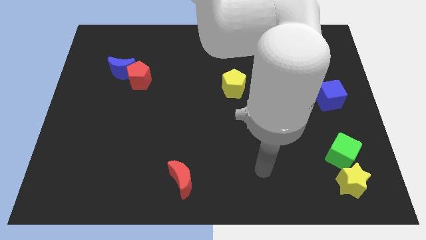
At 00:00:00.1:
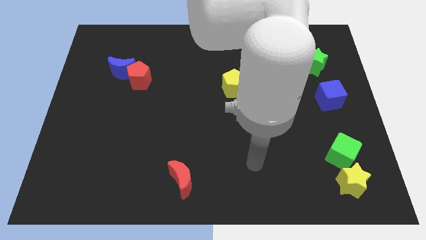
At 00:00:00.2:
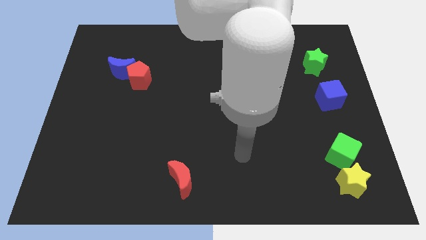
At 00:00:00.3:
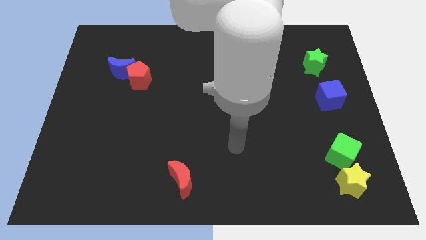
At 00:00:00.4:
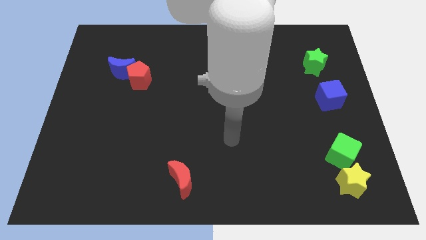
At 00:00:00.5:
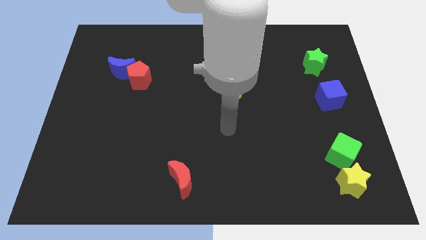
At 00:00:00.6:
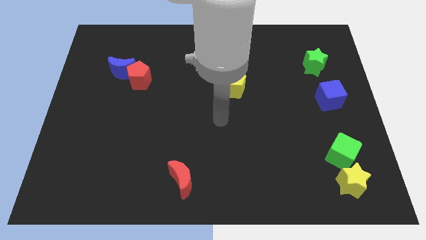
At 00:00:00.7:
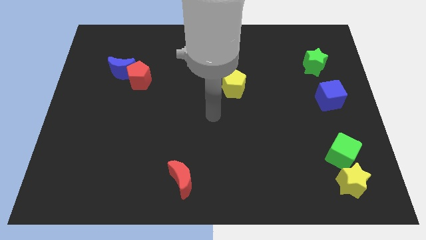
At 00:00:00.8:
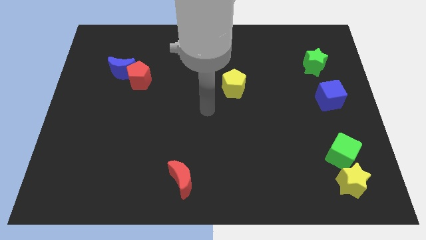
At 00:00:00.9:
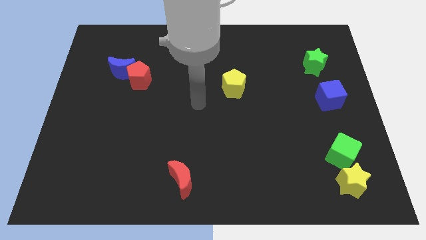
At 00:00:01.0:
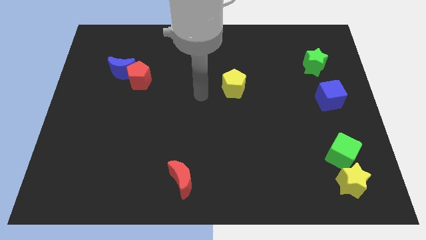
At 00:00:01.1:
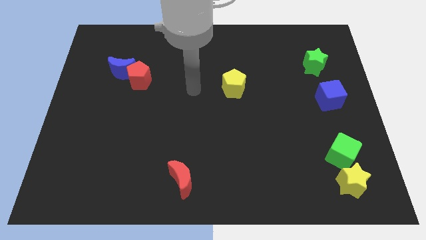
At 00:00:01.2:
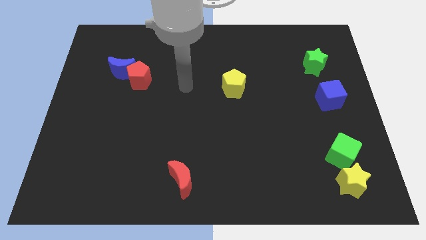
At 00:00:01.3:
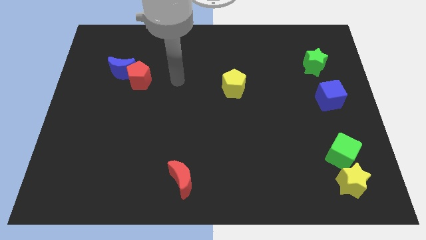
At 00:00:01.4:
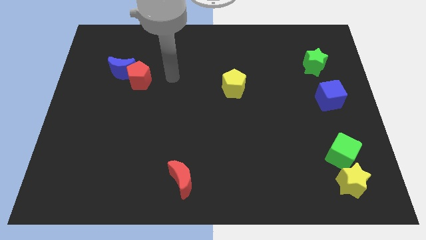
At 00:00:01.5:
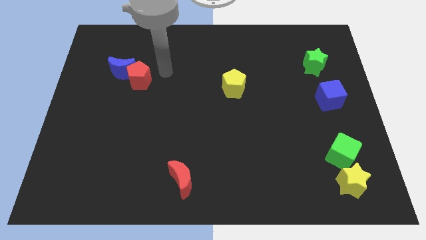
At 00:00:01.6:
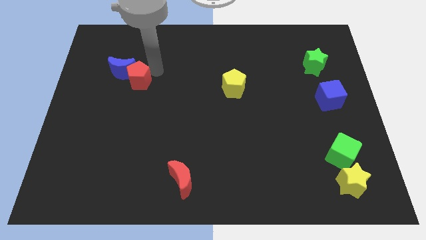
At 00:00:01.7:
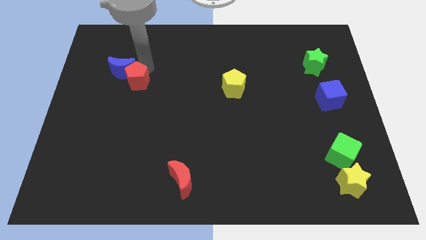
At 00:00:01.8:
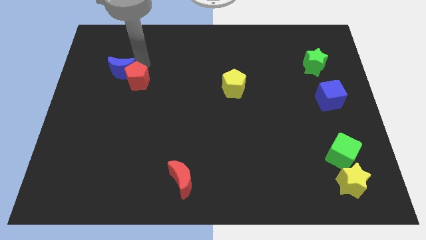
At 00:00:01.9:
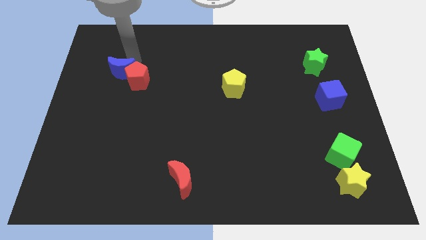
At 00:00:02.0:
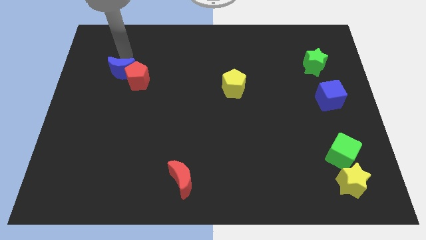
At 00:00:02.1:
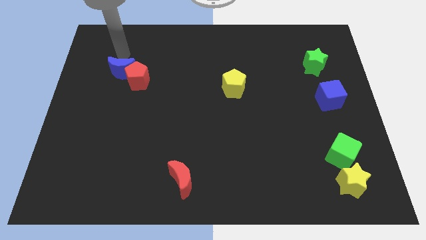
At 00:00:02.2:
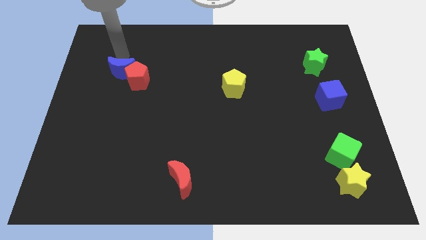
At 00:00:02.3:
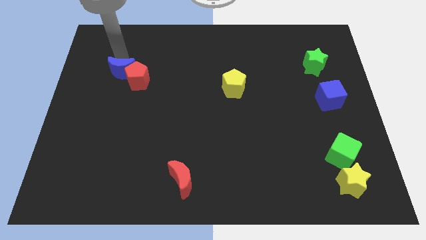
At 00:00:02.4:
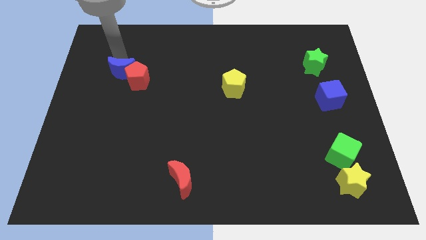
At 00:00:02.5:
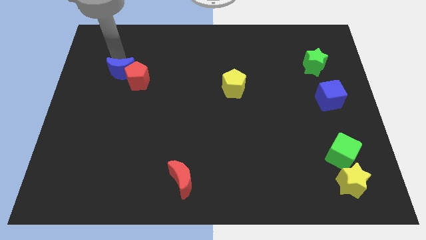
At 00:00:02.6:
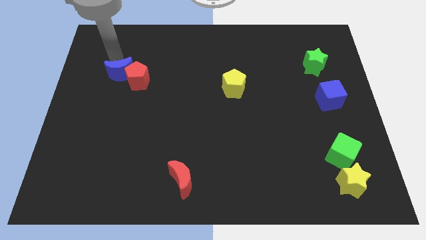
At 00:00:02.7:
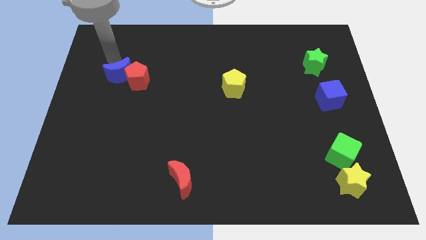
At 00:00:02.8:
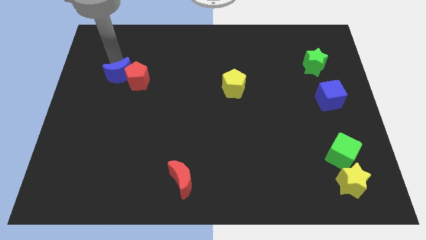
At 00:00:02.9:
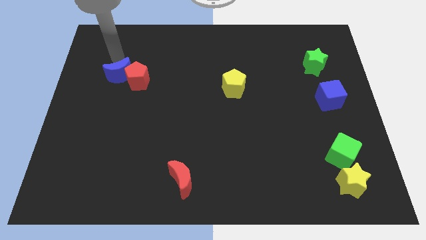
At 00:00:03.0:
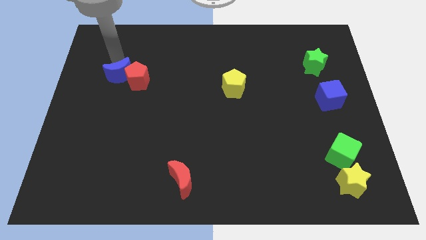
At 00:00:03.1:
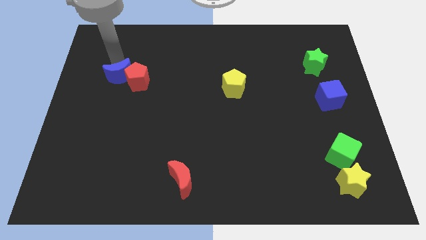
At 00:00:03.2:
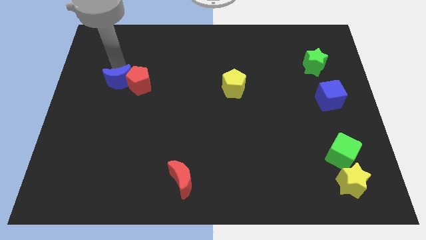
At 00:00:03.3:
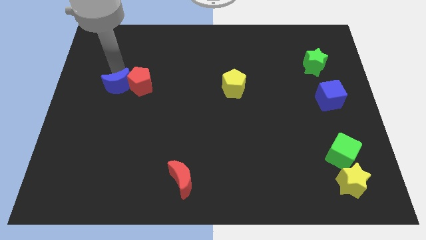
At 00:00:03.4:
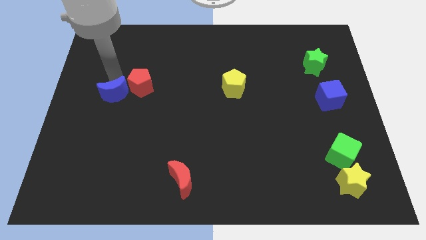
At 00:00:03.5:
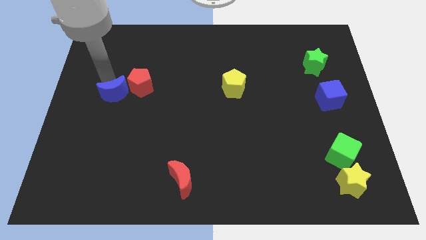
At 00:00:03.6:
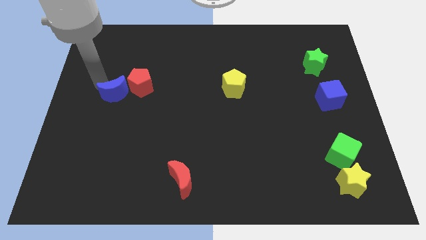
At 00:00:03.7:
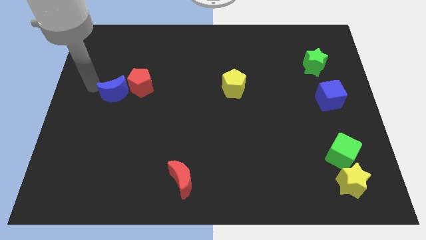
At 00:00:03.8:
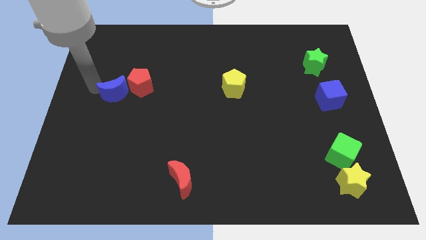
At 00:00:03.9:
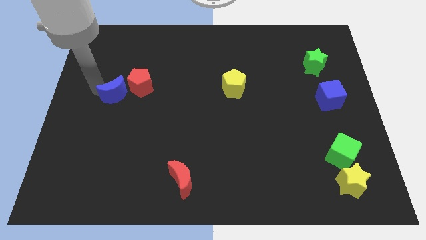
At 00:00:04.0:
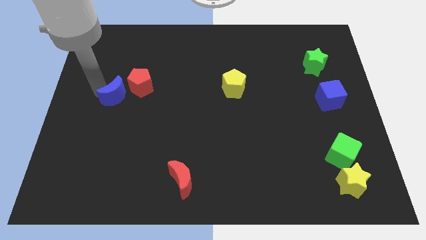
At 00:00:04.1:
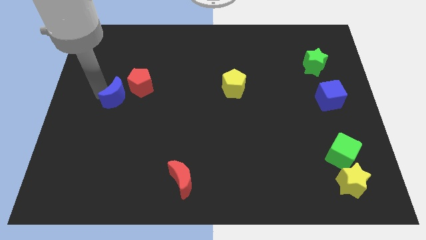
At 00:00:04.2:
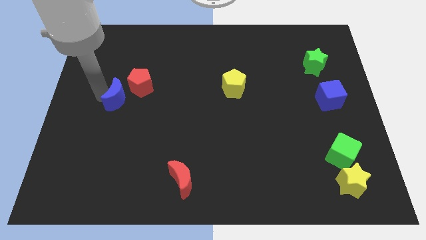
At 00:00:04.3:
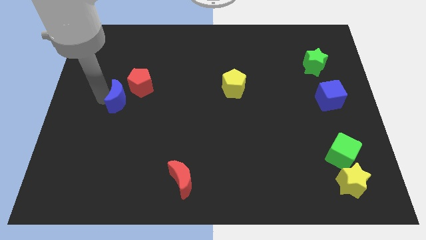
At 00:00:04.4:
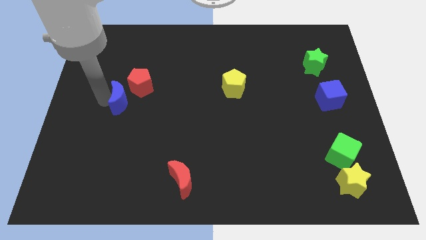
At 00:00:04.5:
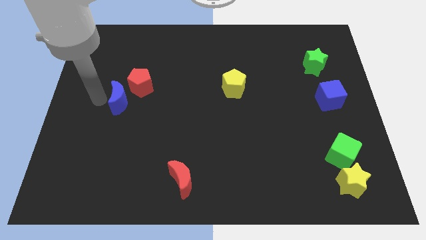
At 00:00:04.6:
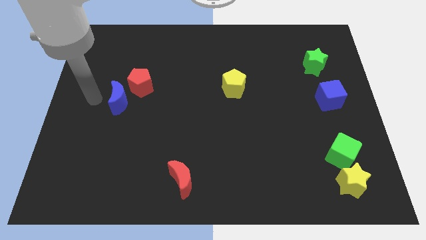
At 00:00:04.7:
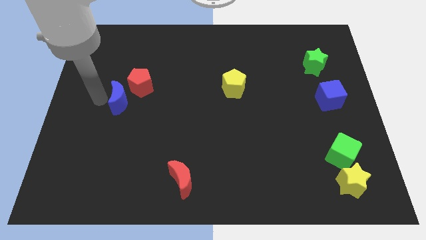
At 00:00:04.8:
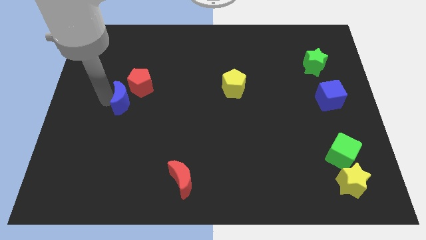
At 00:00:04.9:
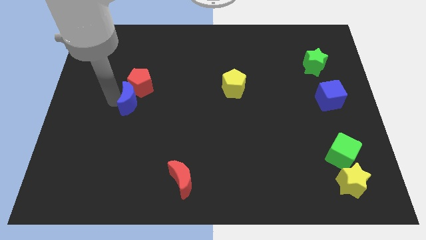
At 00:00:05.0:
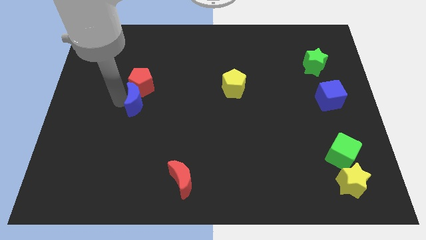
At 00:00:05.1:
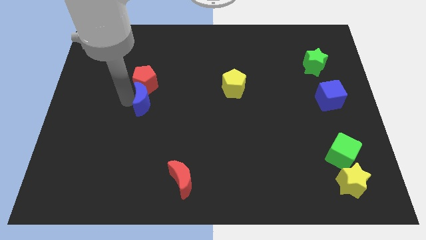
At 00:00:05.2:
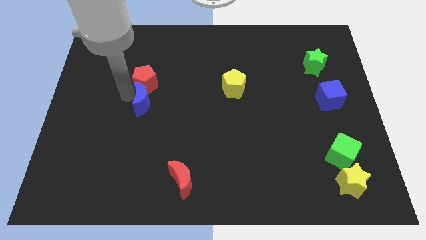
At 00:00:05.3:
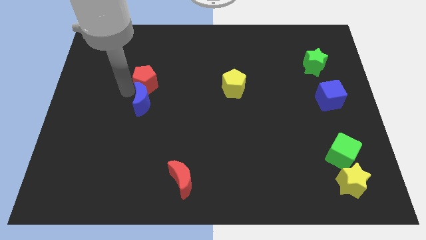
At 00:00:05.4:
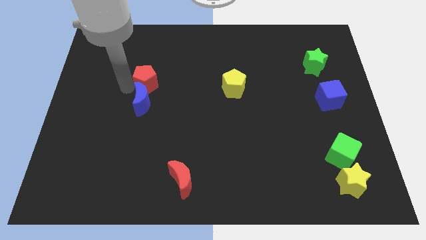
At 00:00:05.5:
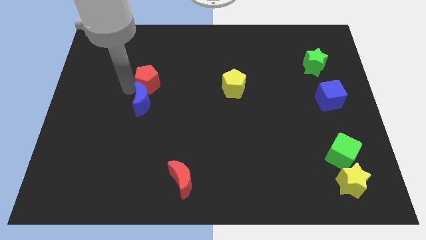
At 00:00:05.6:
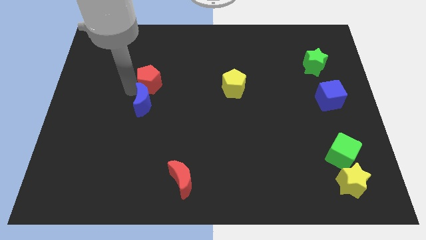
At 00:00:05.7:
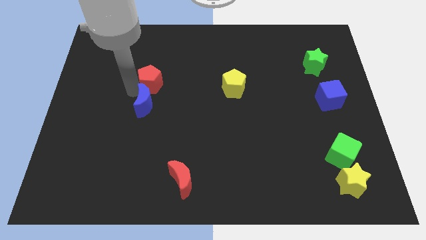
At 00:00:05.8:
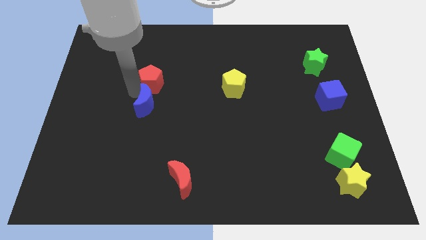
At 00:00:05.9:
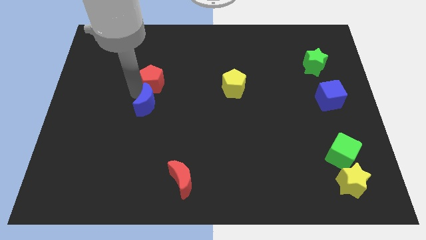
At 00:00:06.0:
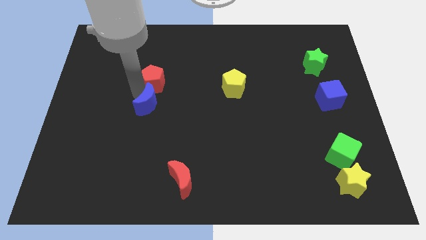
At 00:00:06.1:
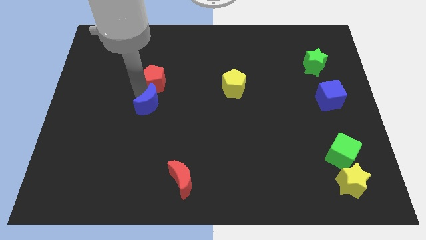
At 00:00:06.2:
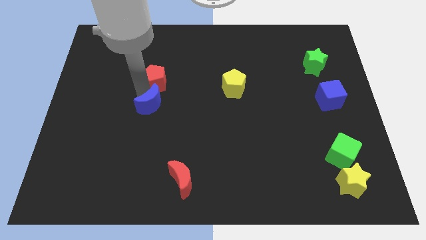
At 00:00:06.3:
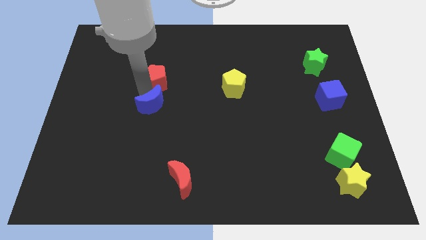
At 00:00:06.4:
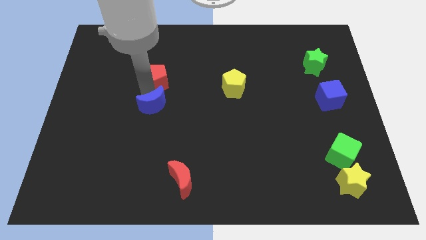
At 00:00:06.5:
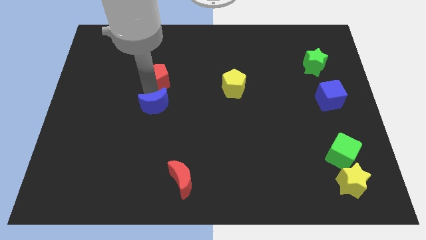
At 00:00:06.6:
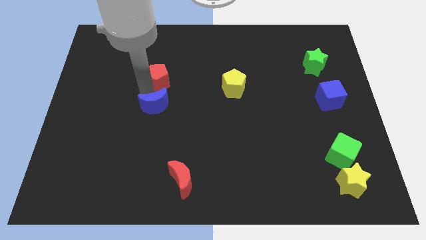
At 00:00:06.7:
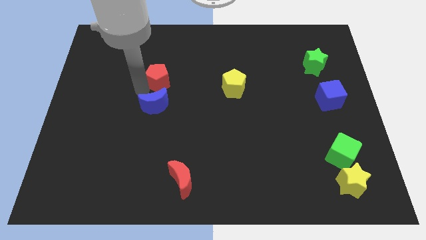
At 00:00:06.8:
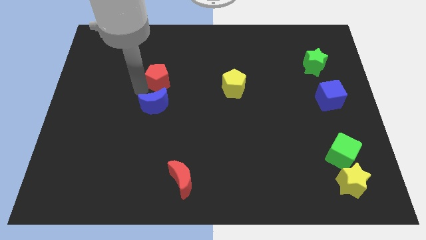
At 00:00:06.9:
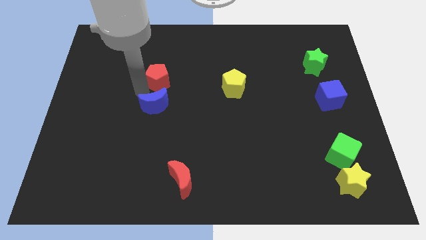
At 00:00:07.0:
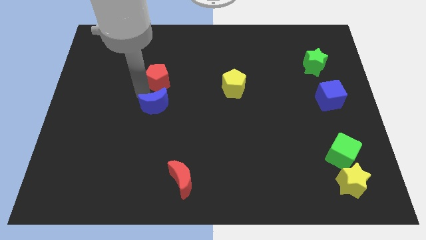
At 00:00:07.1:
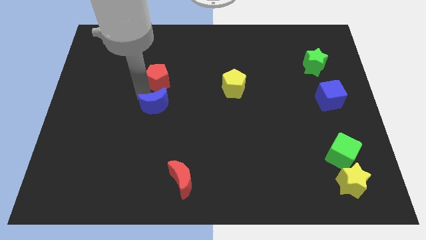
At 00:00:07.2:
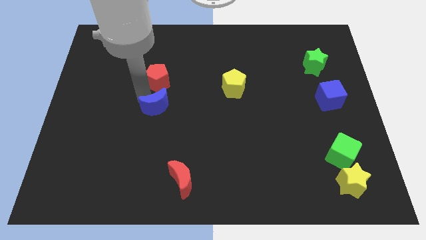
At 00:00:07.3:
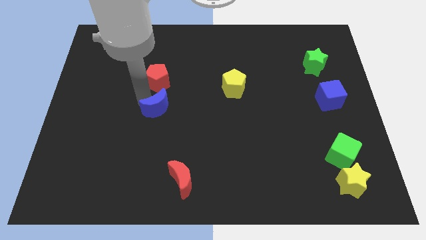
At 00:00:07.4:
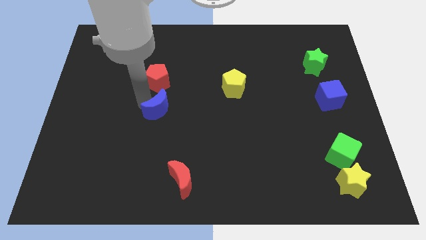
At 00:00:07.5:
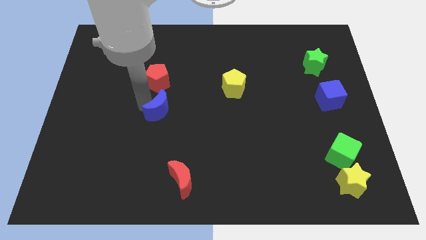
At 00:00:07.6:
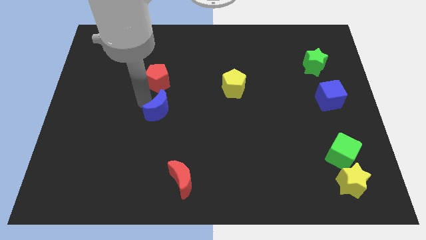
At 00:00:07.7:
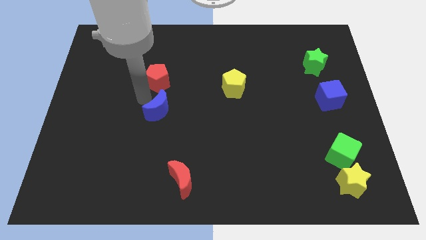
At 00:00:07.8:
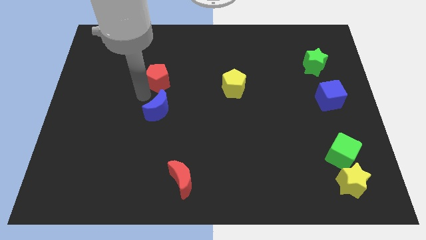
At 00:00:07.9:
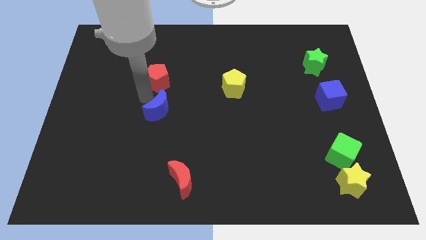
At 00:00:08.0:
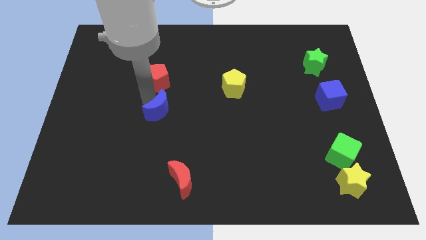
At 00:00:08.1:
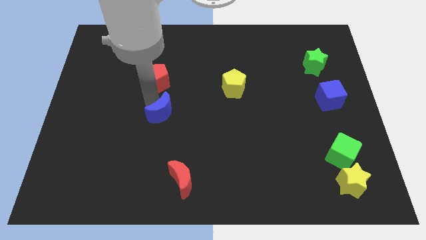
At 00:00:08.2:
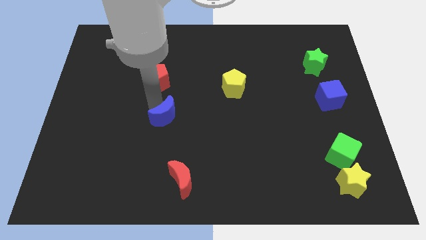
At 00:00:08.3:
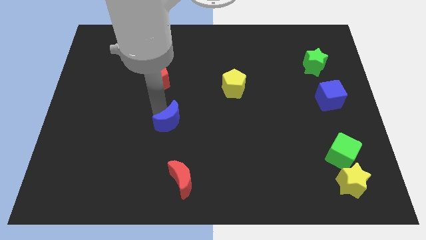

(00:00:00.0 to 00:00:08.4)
slide the blue moon diagonally down and right
